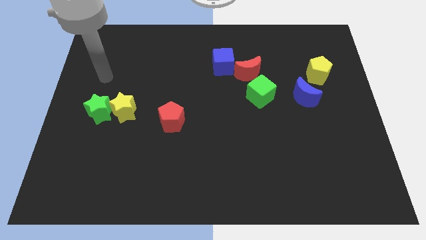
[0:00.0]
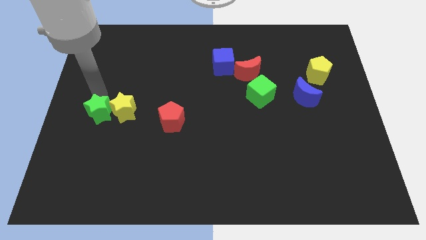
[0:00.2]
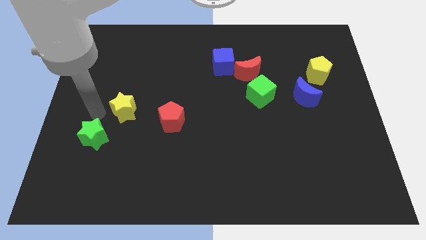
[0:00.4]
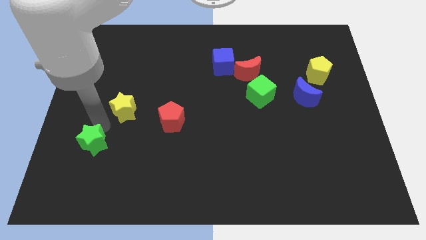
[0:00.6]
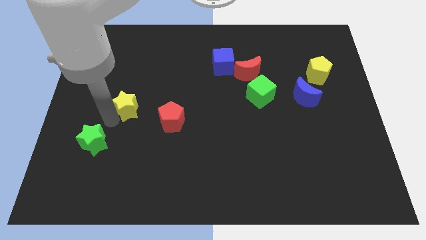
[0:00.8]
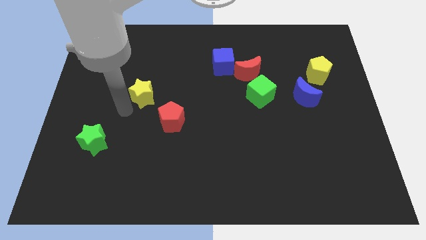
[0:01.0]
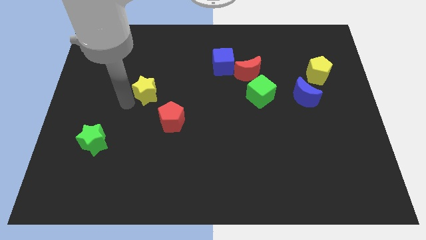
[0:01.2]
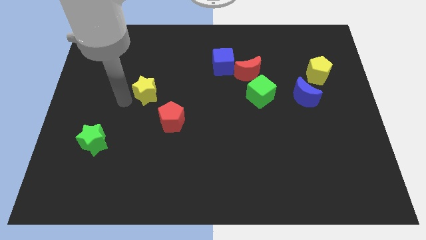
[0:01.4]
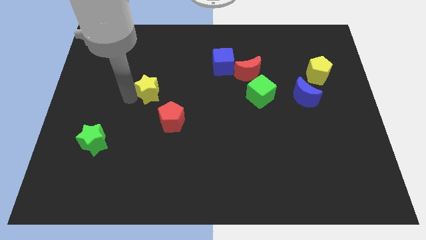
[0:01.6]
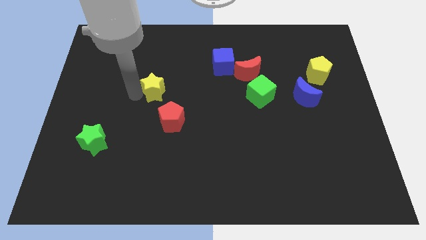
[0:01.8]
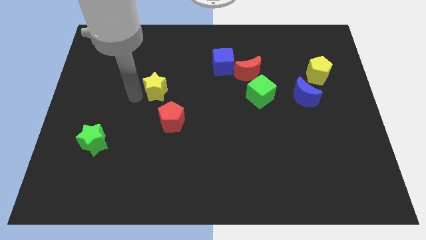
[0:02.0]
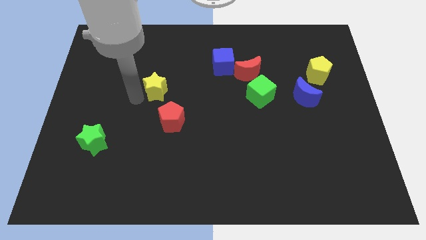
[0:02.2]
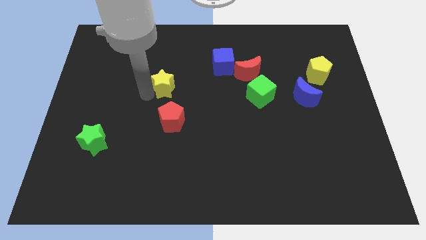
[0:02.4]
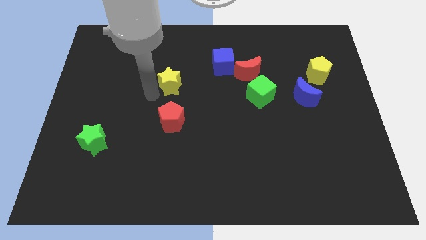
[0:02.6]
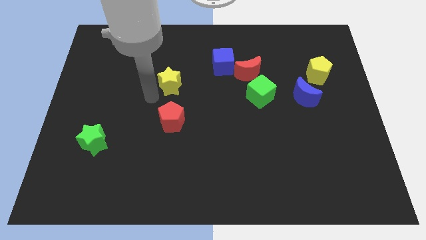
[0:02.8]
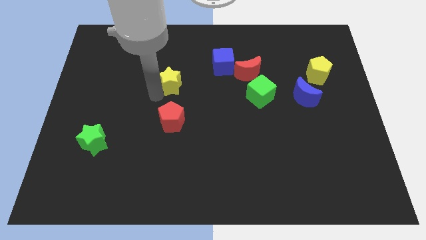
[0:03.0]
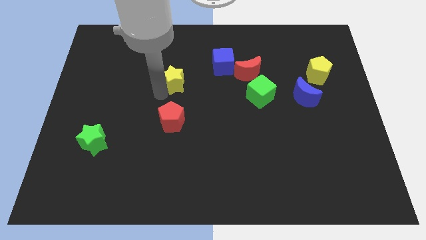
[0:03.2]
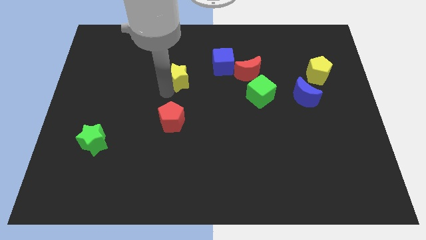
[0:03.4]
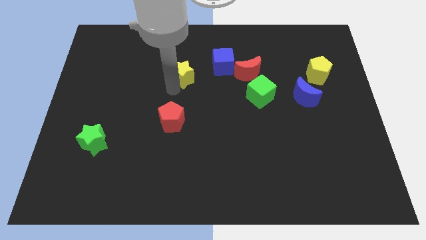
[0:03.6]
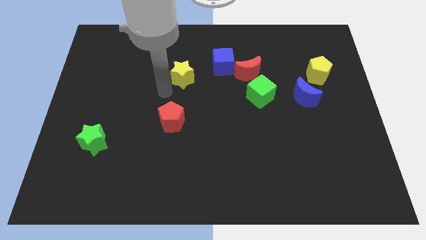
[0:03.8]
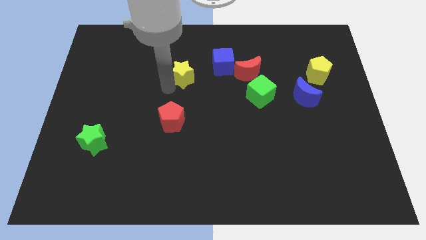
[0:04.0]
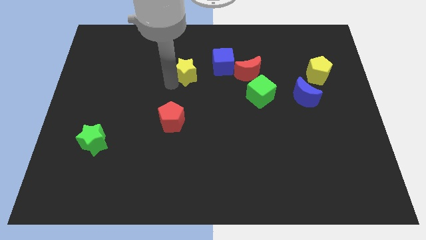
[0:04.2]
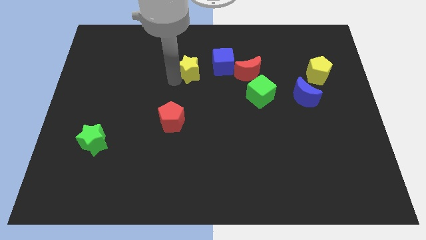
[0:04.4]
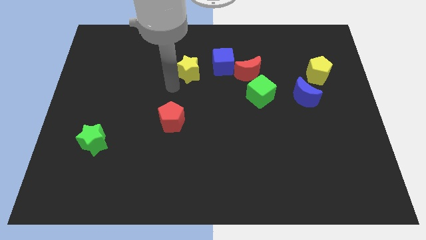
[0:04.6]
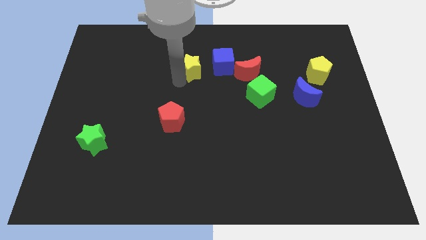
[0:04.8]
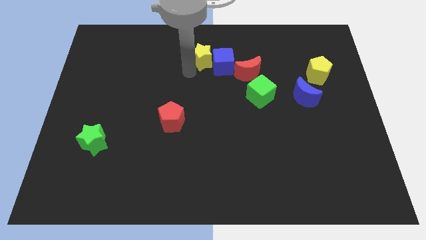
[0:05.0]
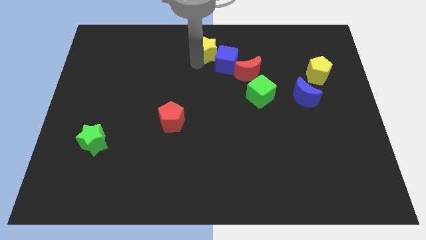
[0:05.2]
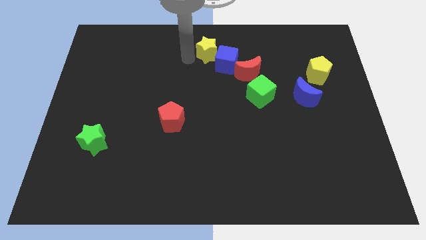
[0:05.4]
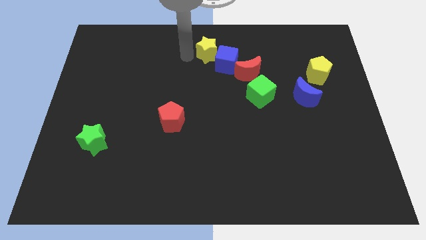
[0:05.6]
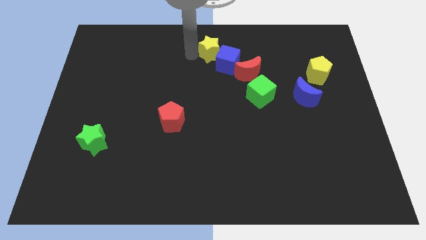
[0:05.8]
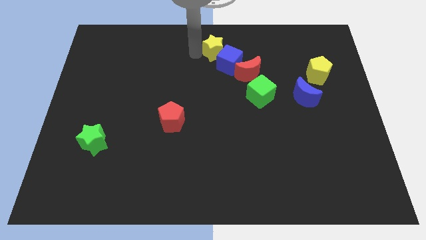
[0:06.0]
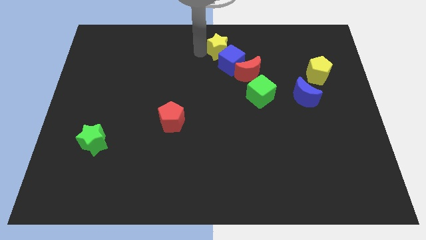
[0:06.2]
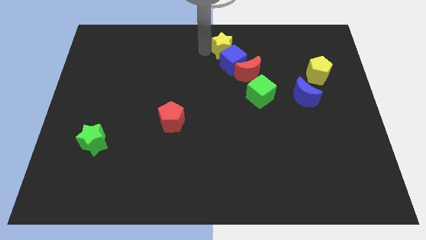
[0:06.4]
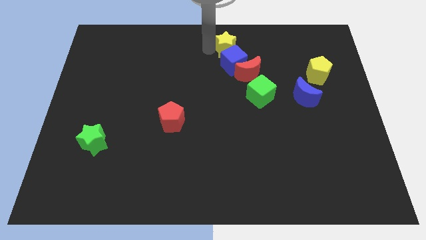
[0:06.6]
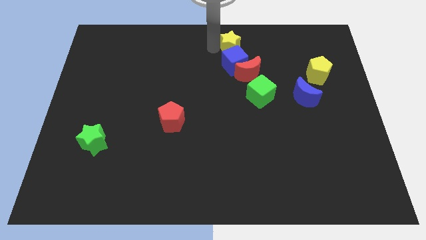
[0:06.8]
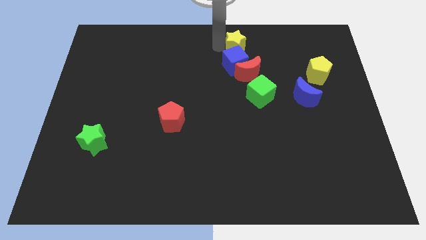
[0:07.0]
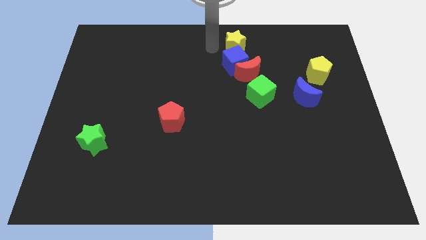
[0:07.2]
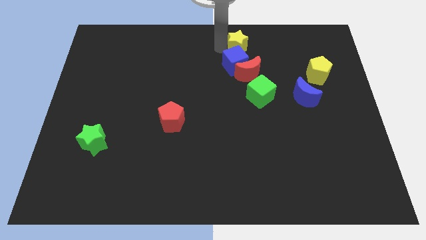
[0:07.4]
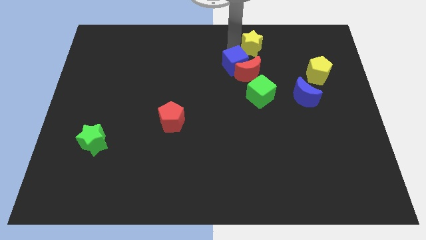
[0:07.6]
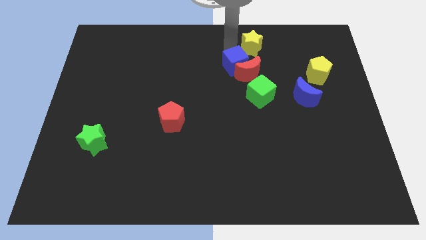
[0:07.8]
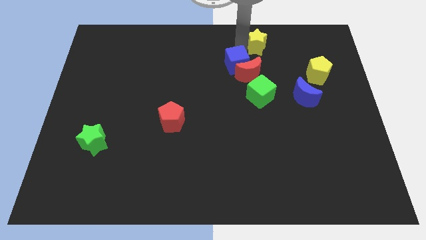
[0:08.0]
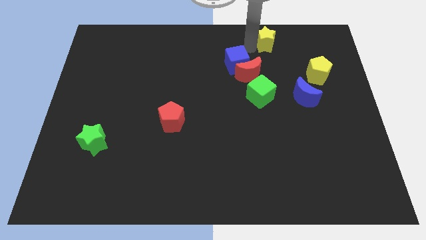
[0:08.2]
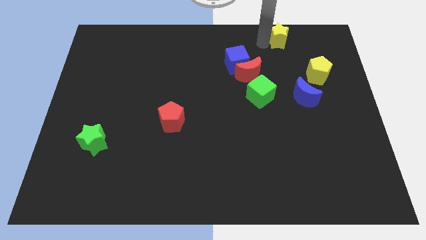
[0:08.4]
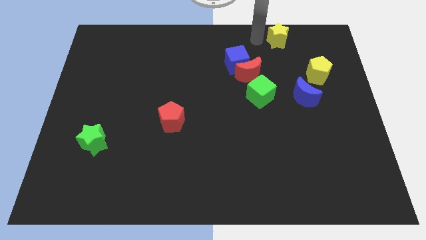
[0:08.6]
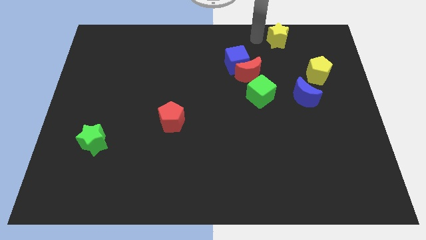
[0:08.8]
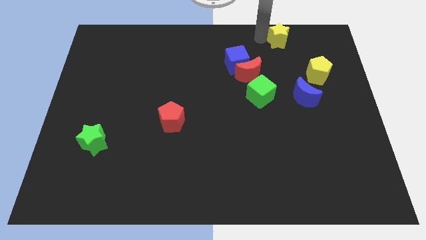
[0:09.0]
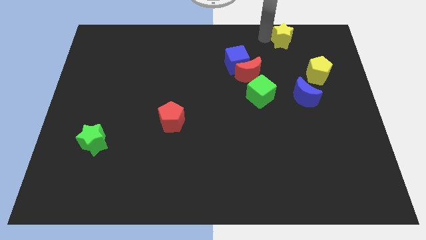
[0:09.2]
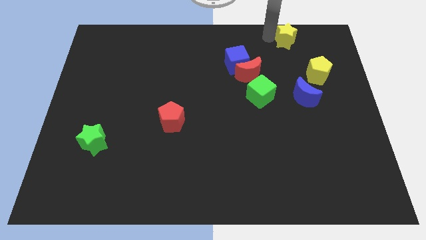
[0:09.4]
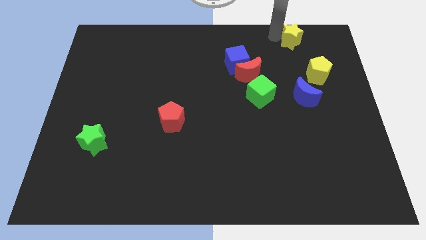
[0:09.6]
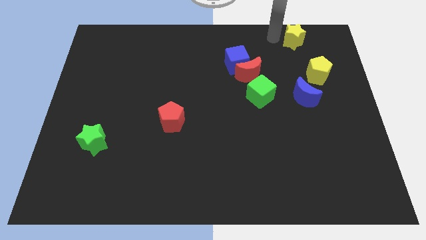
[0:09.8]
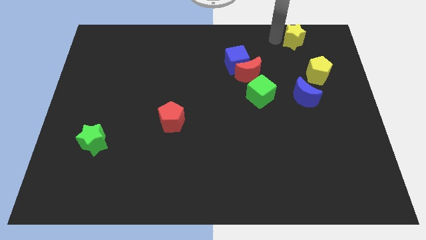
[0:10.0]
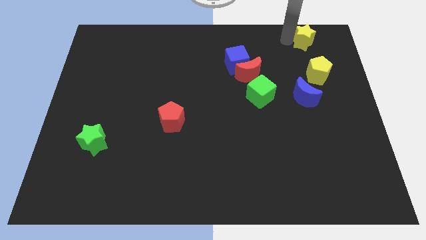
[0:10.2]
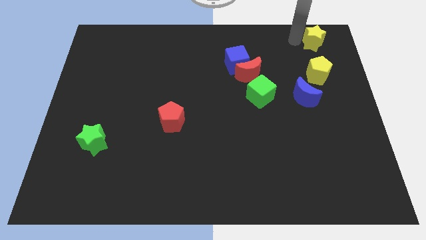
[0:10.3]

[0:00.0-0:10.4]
move the yellow star to the top right corner

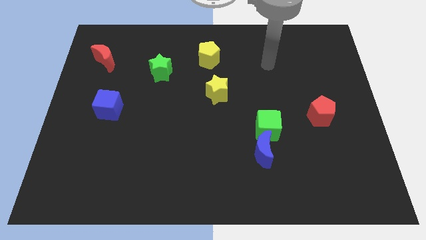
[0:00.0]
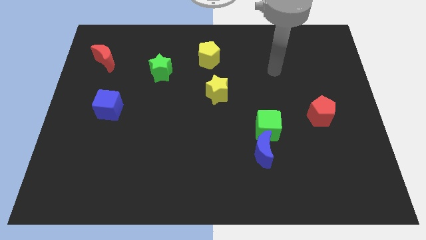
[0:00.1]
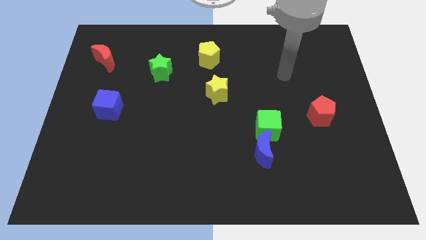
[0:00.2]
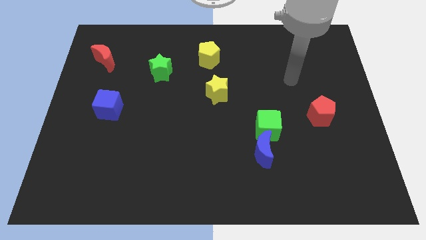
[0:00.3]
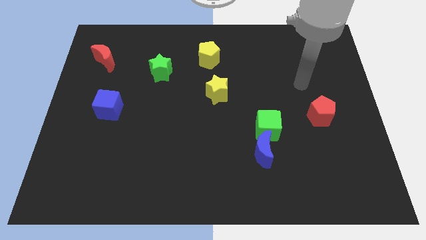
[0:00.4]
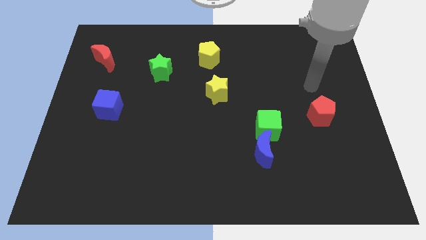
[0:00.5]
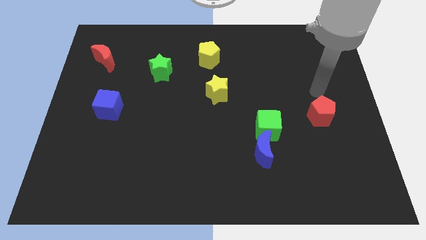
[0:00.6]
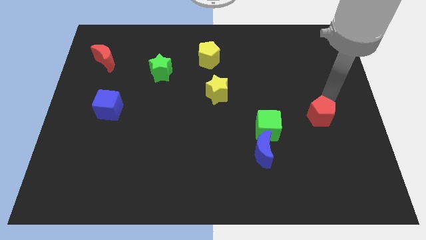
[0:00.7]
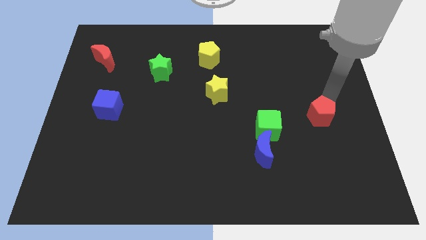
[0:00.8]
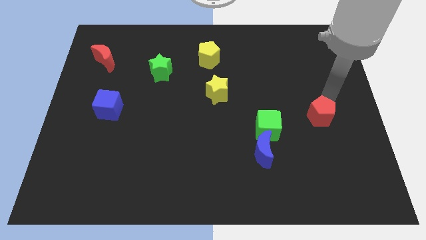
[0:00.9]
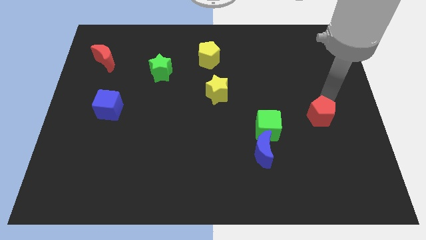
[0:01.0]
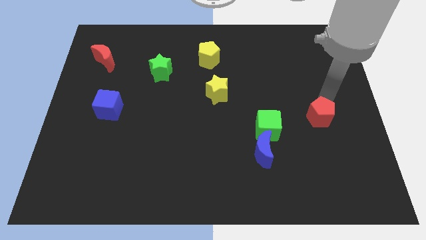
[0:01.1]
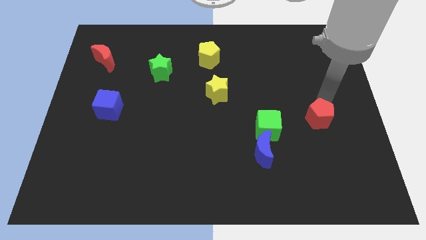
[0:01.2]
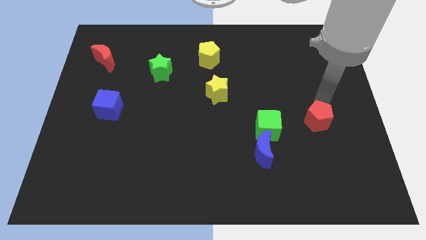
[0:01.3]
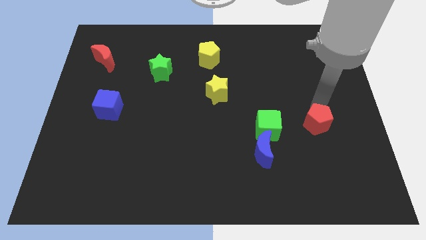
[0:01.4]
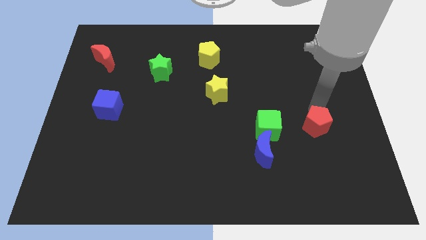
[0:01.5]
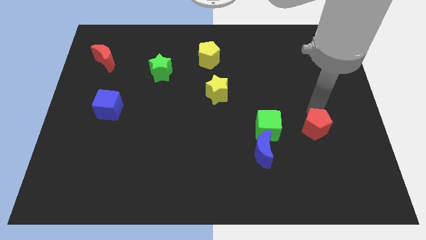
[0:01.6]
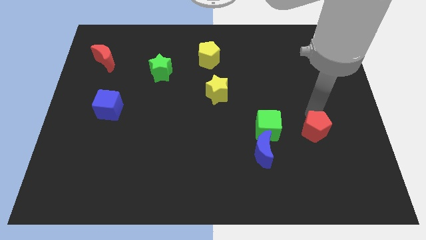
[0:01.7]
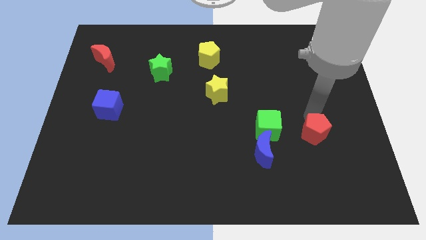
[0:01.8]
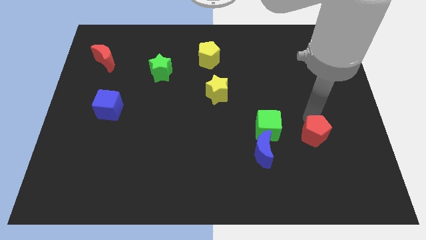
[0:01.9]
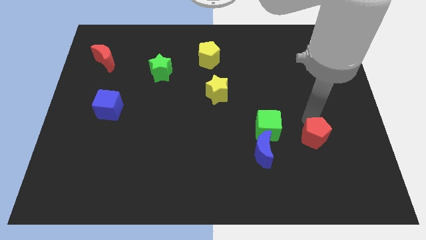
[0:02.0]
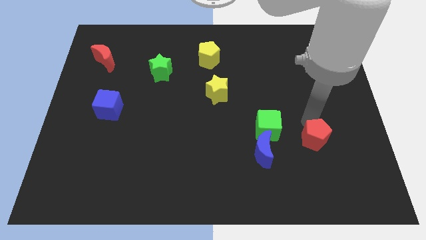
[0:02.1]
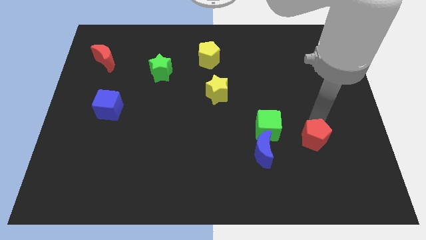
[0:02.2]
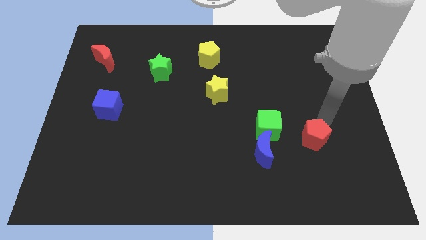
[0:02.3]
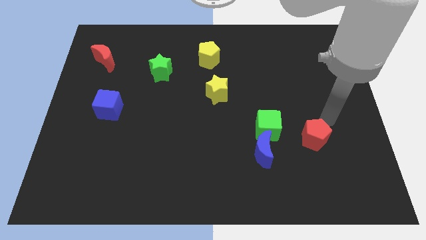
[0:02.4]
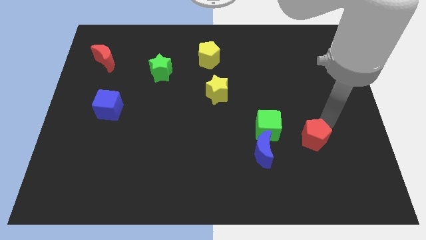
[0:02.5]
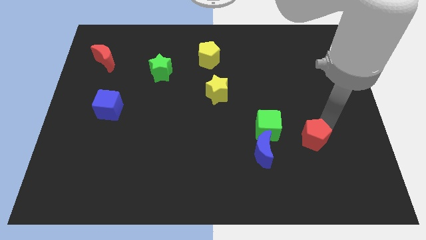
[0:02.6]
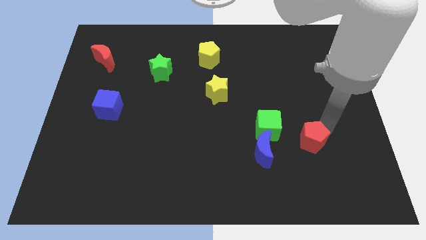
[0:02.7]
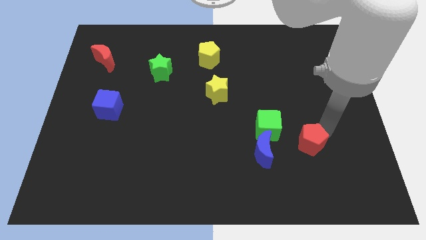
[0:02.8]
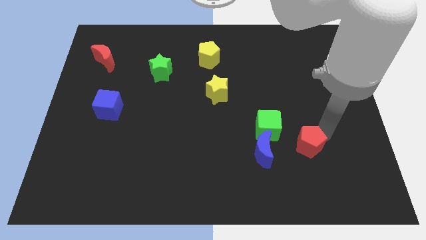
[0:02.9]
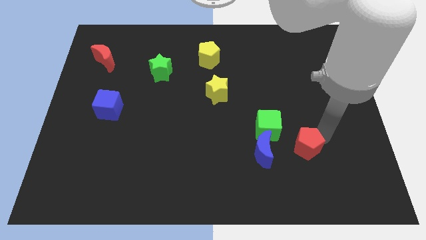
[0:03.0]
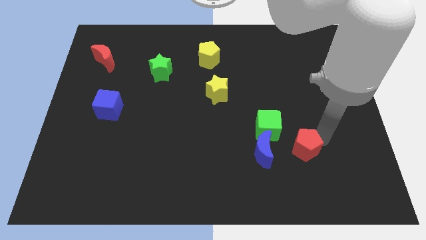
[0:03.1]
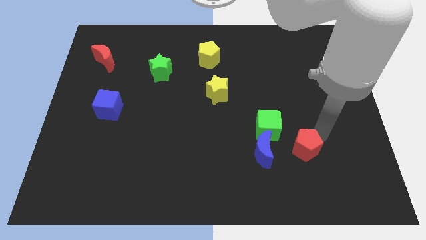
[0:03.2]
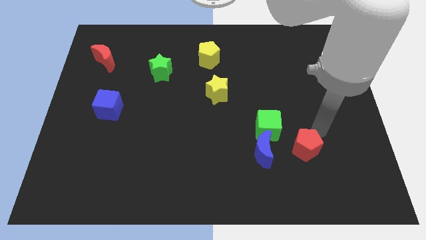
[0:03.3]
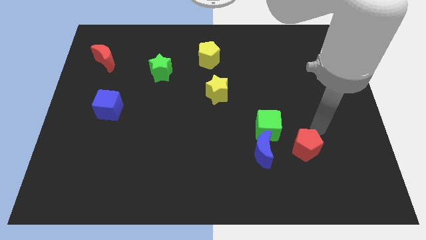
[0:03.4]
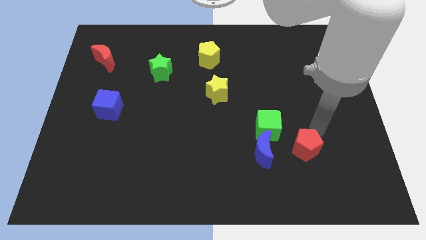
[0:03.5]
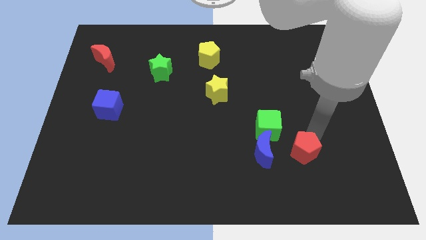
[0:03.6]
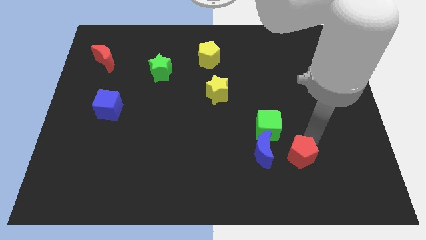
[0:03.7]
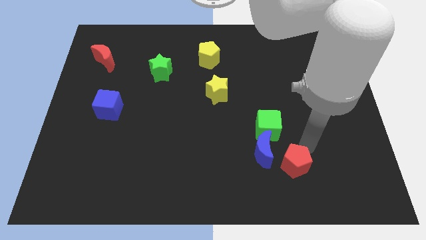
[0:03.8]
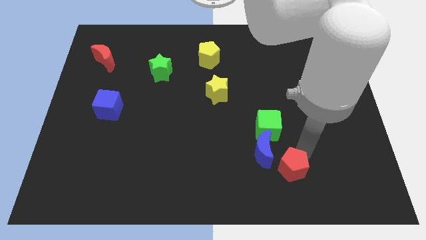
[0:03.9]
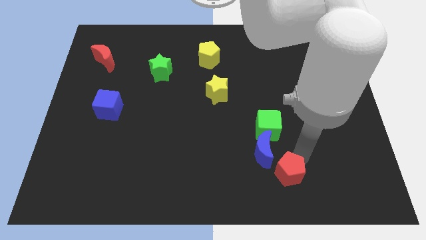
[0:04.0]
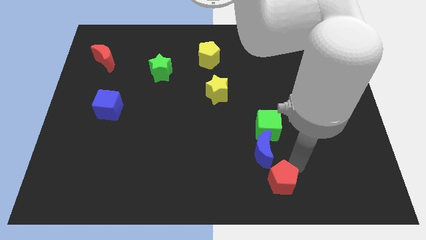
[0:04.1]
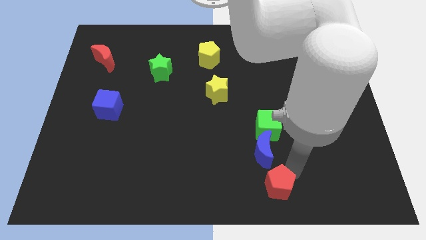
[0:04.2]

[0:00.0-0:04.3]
move the red pentagon to the bottom
